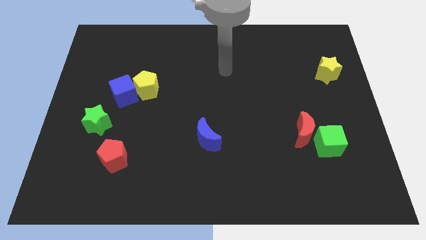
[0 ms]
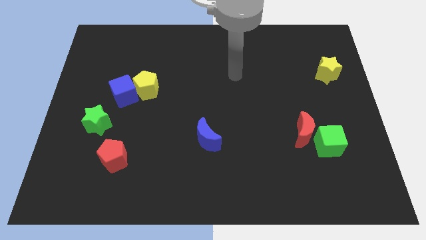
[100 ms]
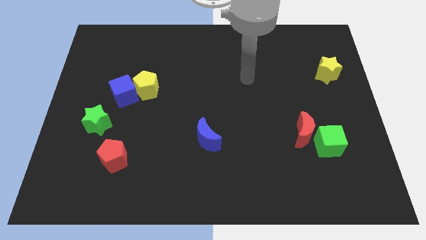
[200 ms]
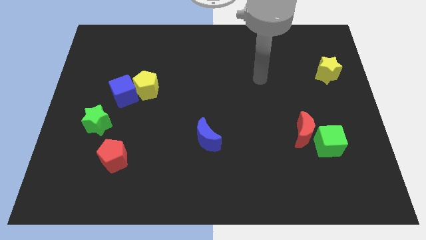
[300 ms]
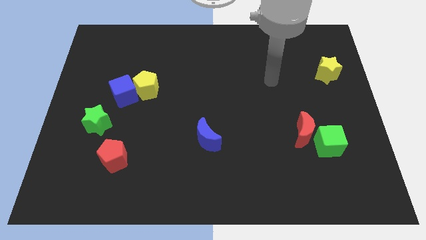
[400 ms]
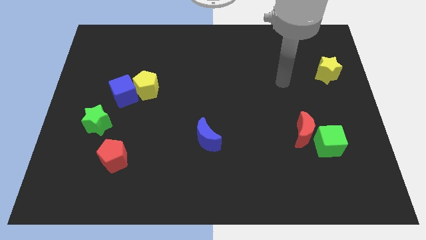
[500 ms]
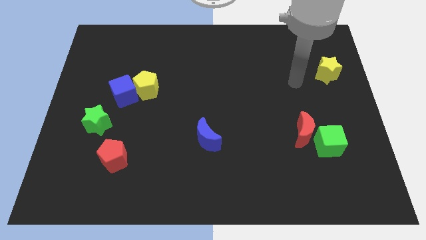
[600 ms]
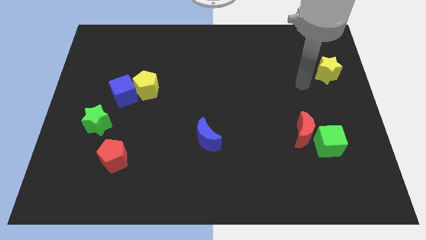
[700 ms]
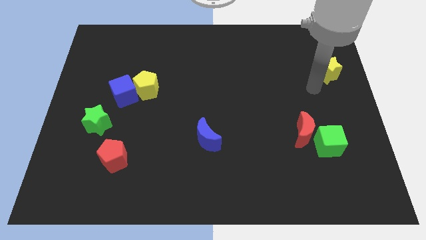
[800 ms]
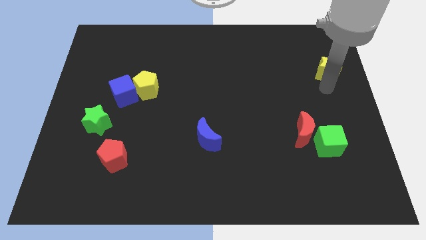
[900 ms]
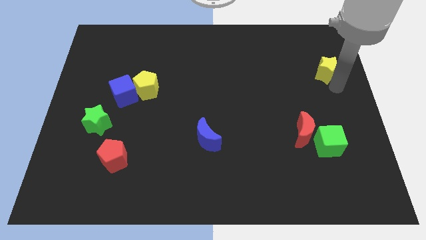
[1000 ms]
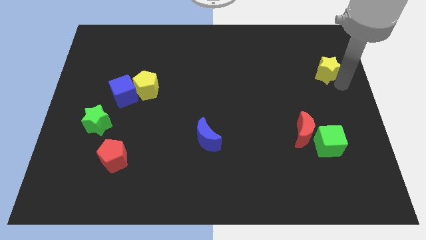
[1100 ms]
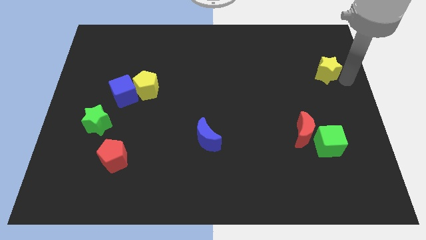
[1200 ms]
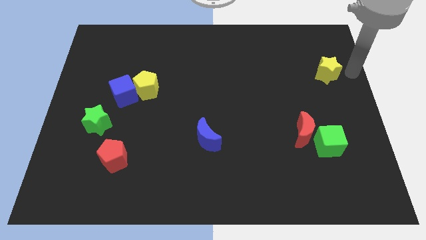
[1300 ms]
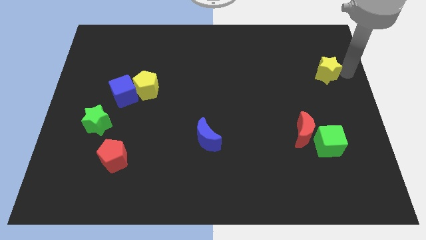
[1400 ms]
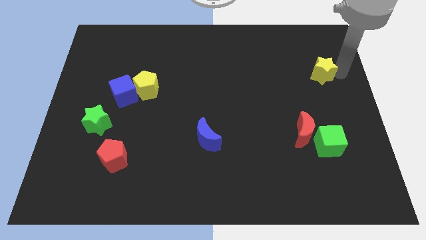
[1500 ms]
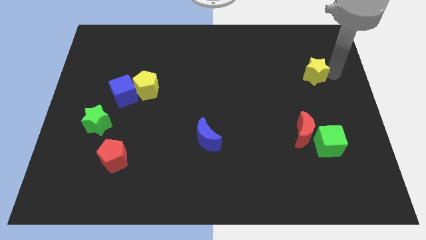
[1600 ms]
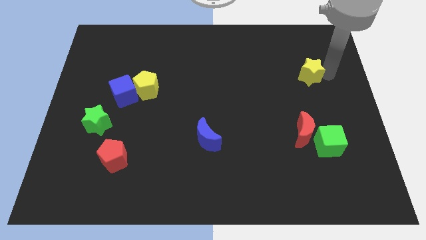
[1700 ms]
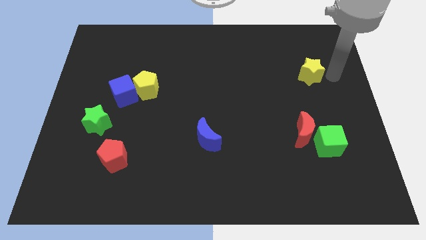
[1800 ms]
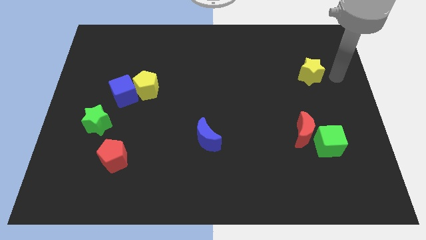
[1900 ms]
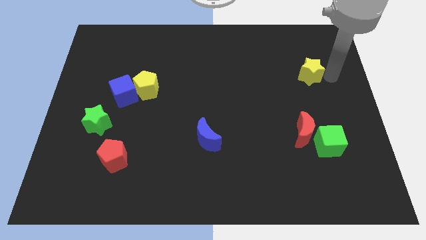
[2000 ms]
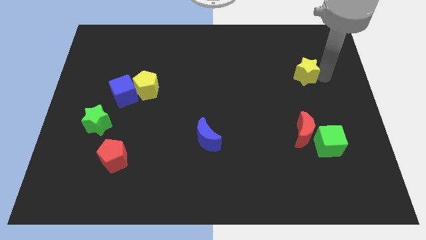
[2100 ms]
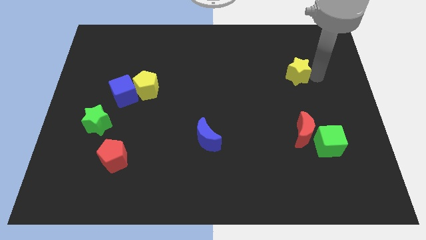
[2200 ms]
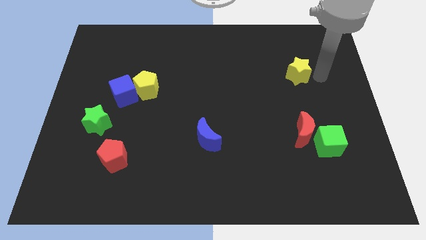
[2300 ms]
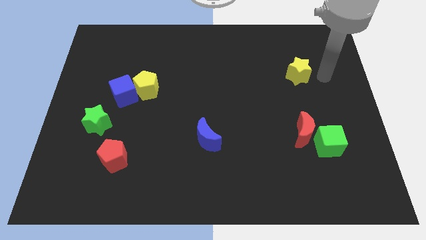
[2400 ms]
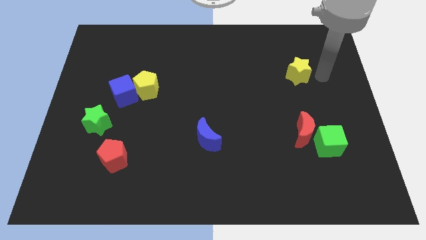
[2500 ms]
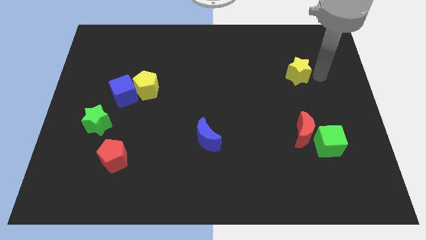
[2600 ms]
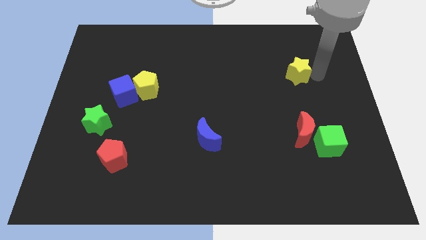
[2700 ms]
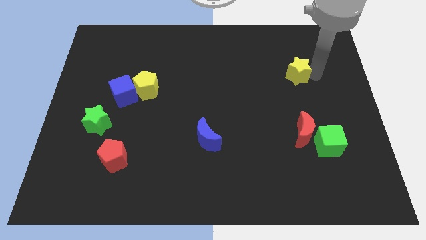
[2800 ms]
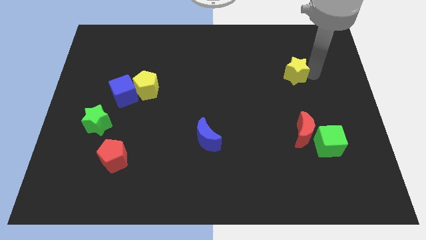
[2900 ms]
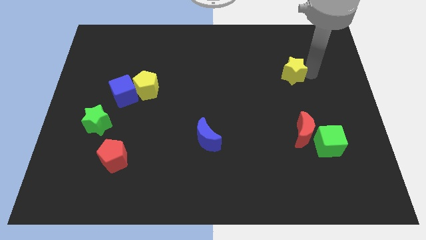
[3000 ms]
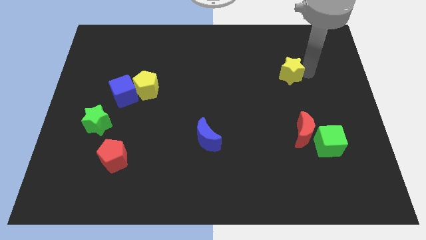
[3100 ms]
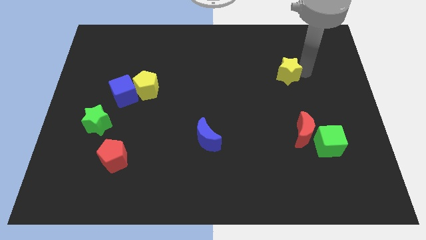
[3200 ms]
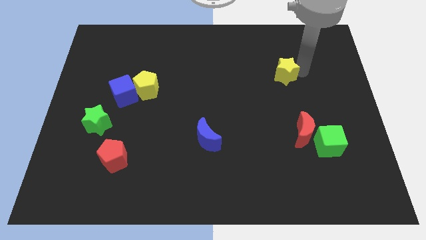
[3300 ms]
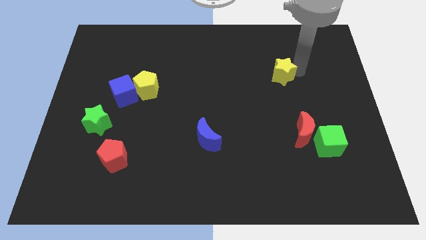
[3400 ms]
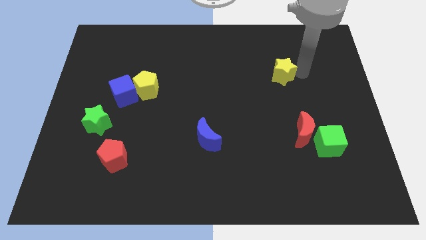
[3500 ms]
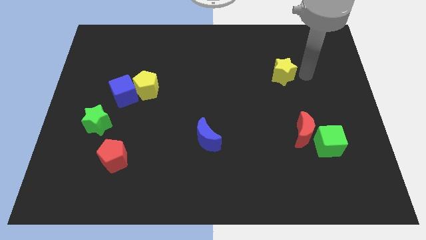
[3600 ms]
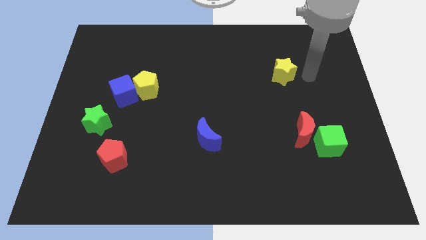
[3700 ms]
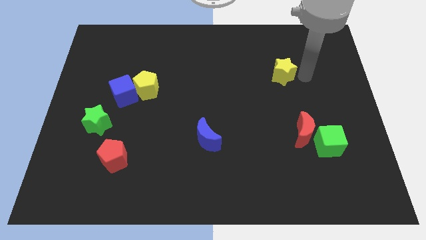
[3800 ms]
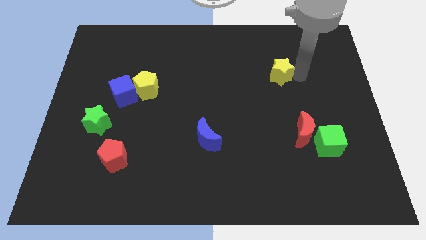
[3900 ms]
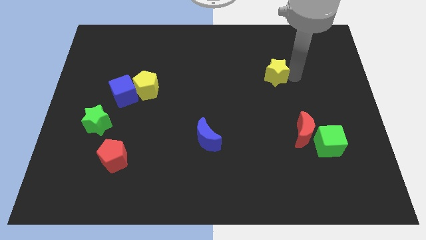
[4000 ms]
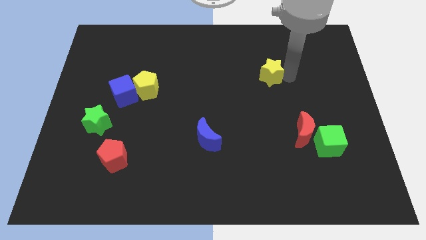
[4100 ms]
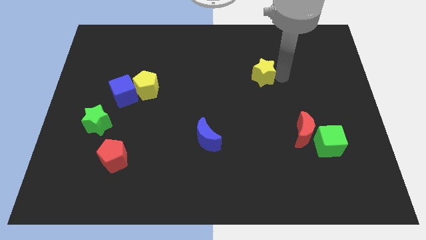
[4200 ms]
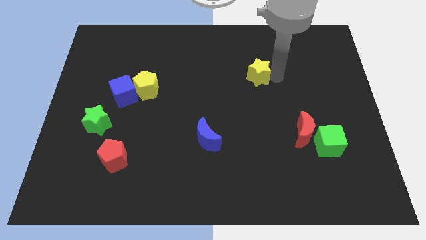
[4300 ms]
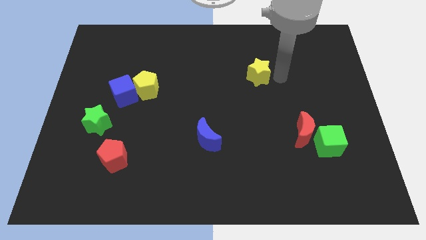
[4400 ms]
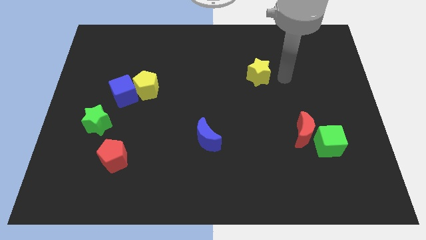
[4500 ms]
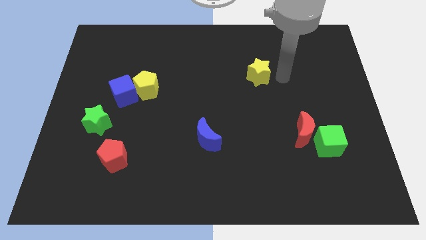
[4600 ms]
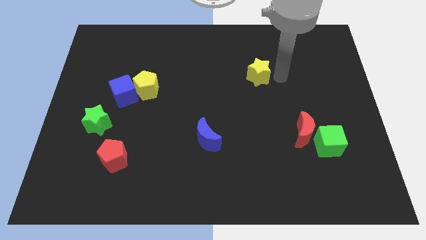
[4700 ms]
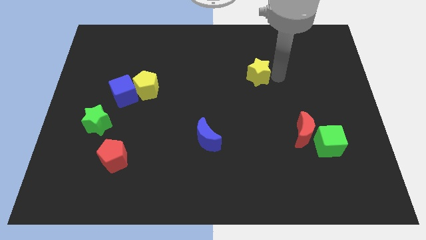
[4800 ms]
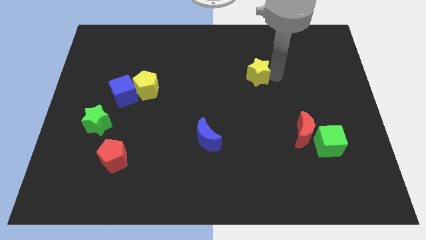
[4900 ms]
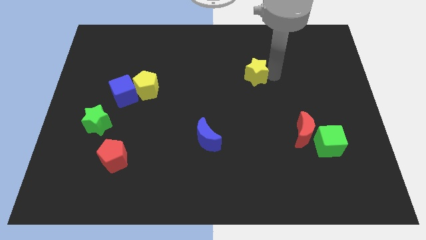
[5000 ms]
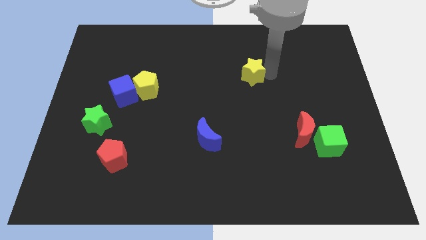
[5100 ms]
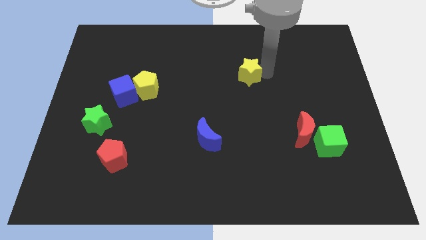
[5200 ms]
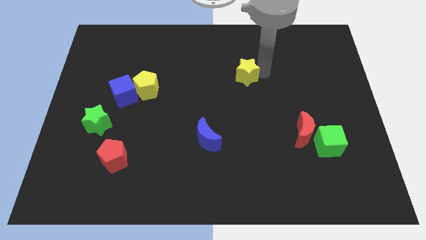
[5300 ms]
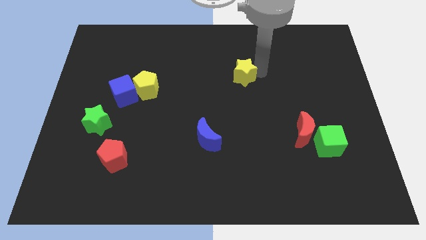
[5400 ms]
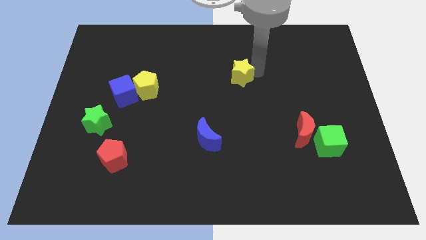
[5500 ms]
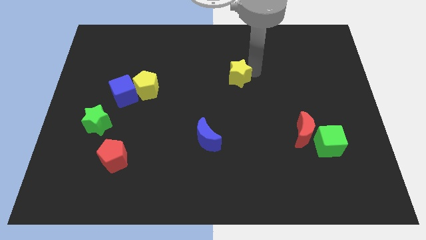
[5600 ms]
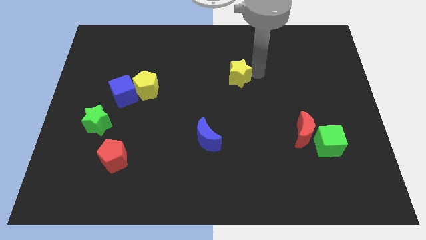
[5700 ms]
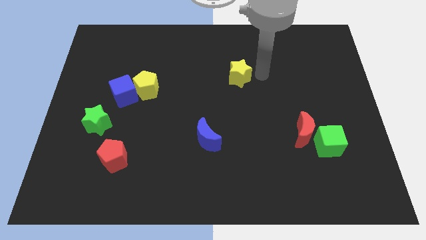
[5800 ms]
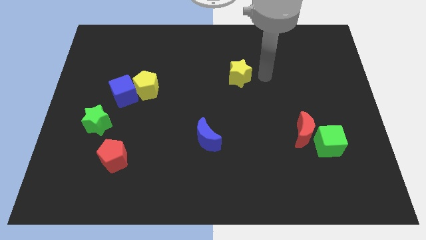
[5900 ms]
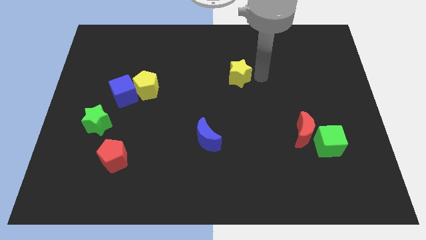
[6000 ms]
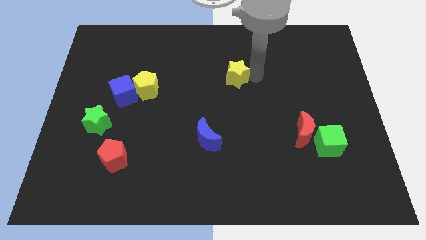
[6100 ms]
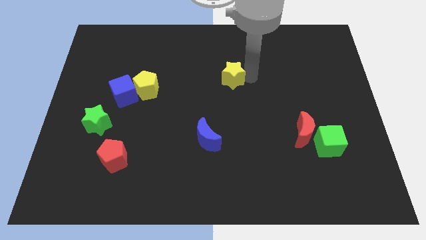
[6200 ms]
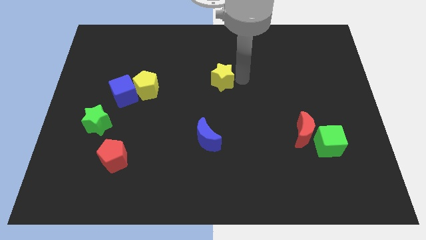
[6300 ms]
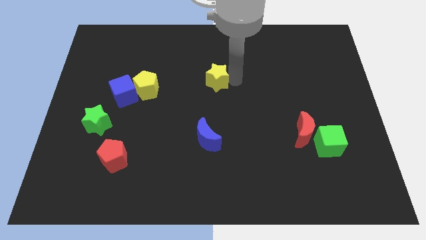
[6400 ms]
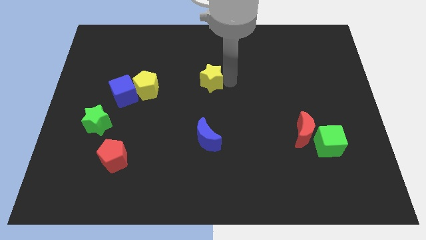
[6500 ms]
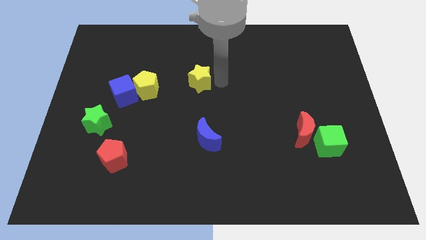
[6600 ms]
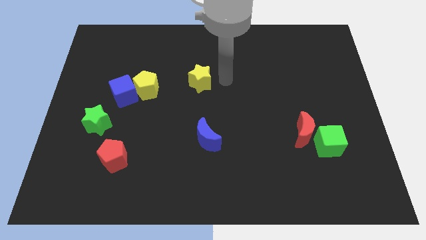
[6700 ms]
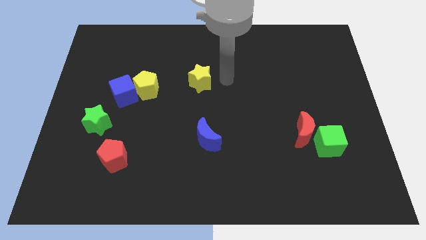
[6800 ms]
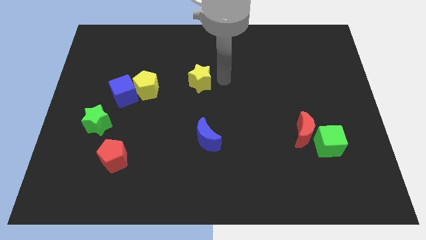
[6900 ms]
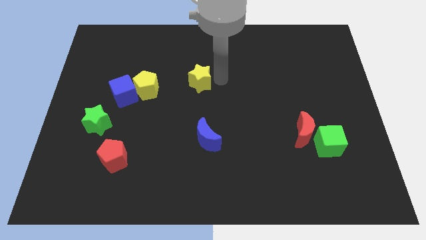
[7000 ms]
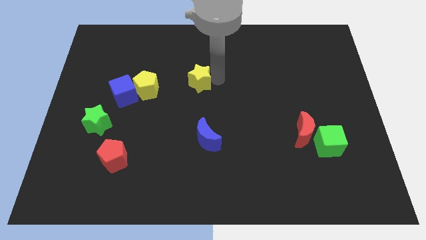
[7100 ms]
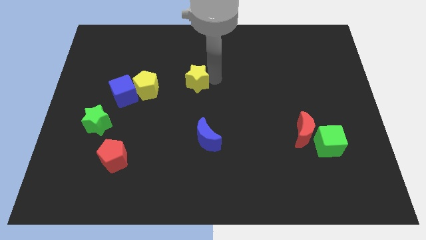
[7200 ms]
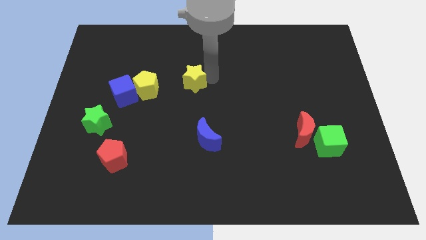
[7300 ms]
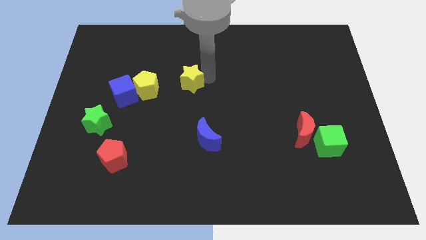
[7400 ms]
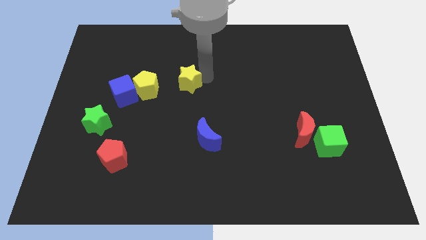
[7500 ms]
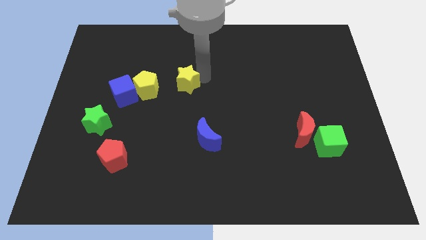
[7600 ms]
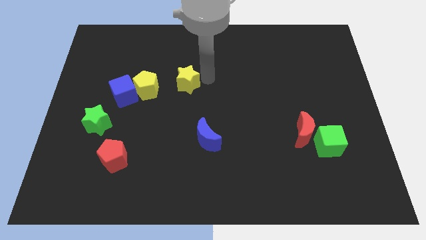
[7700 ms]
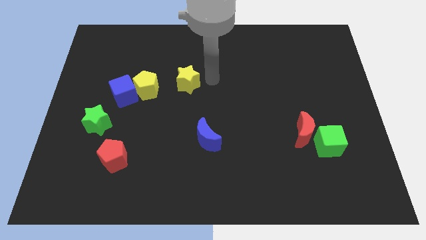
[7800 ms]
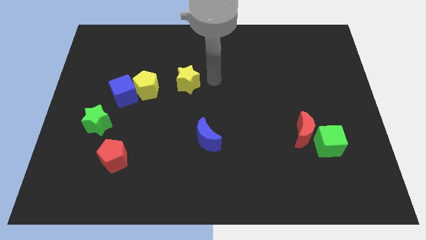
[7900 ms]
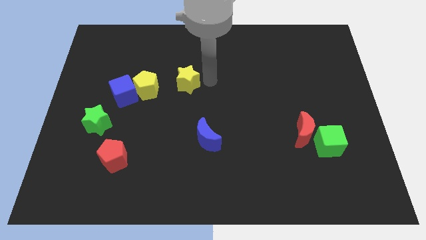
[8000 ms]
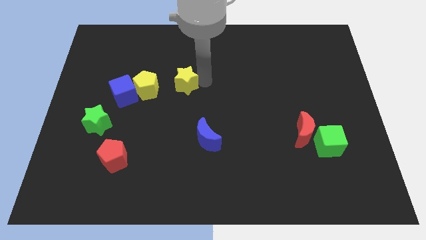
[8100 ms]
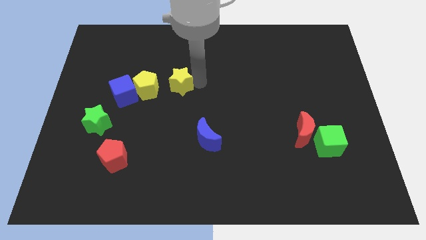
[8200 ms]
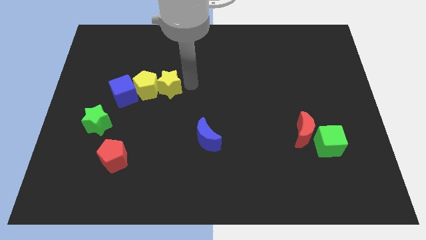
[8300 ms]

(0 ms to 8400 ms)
push the yellow star next to the yellow pentagon

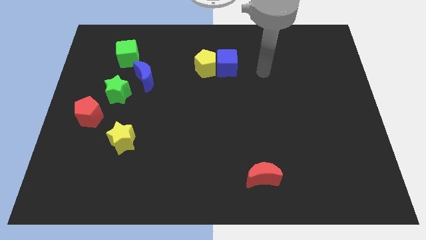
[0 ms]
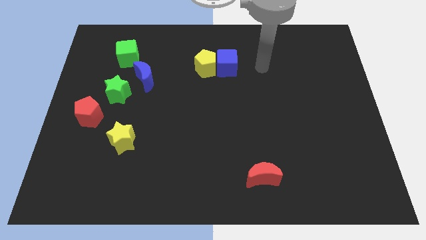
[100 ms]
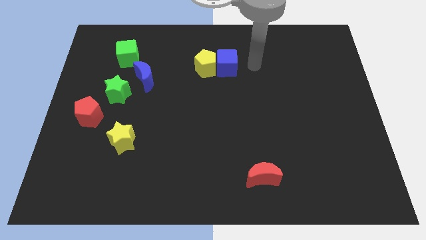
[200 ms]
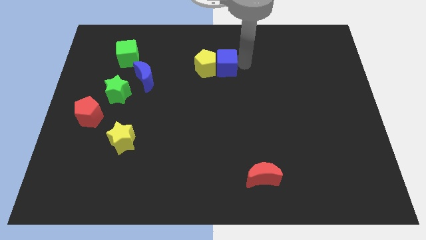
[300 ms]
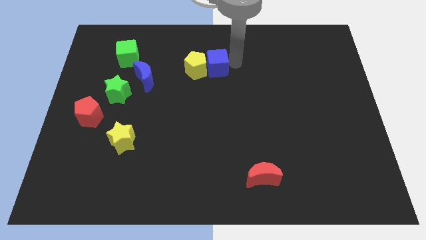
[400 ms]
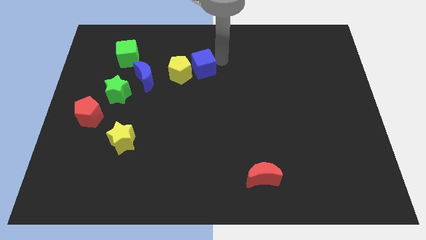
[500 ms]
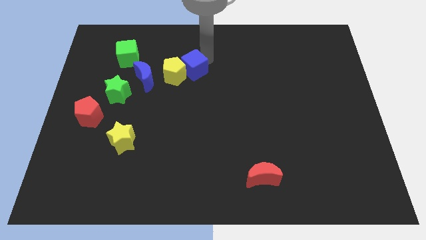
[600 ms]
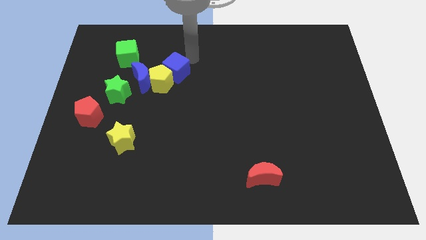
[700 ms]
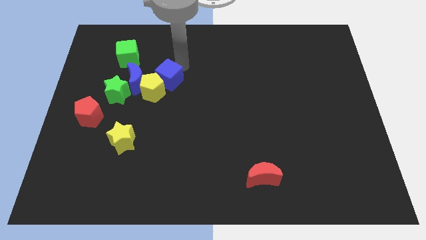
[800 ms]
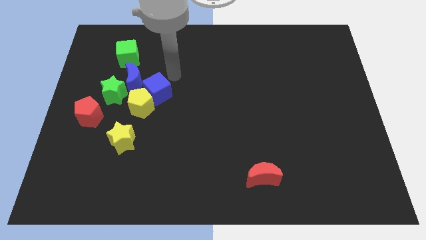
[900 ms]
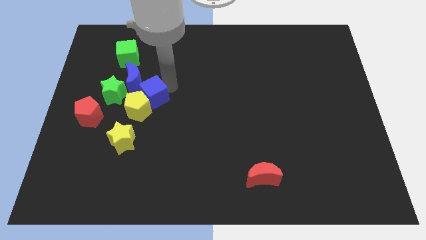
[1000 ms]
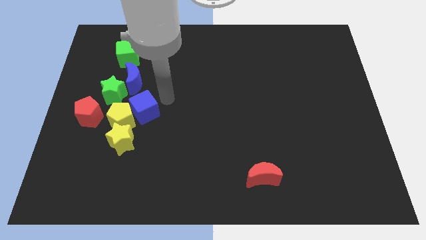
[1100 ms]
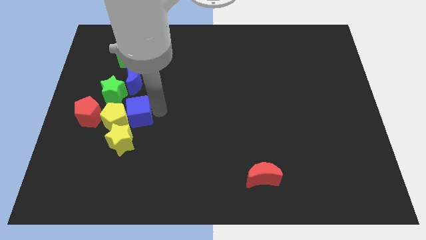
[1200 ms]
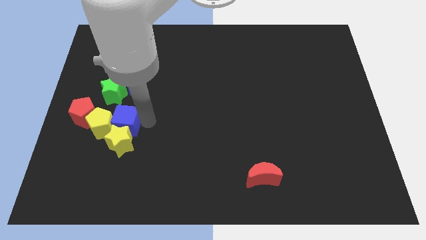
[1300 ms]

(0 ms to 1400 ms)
slide the yellow pentagon close to the red pentagon
